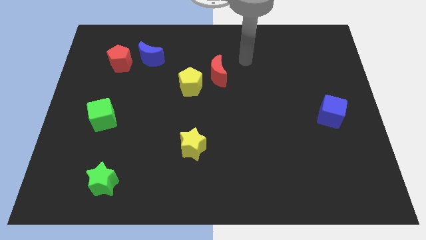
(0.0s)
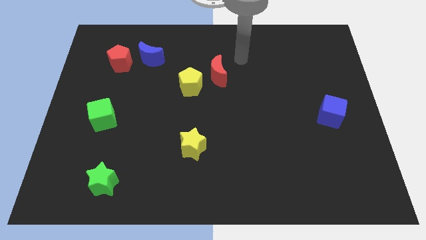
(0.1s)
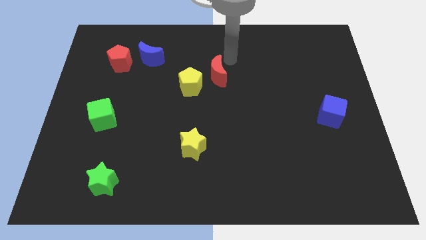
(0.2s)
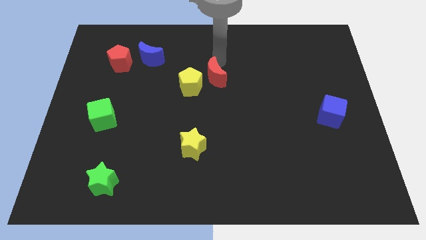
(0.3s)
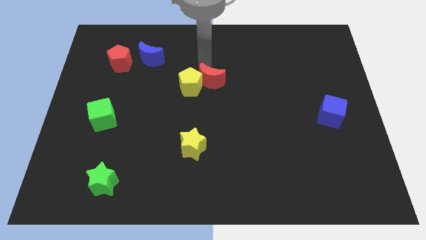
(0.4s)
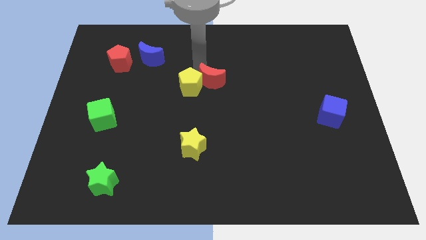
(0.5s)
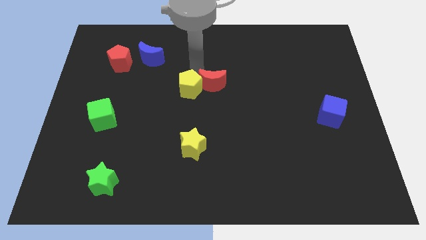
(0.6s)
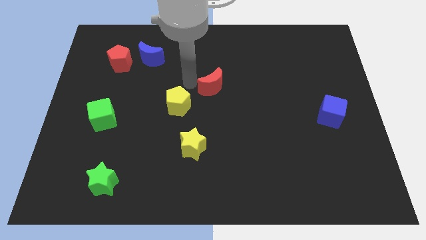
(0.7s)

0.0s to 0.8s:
pull the red moon apart from the yellow pentagon

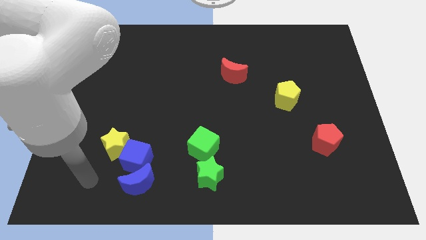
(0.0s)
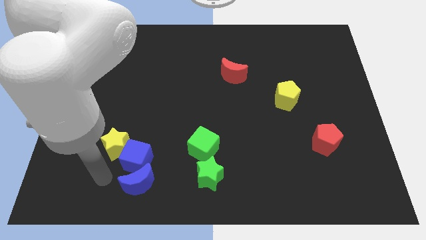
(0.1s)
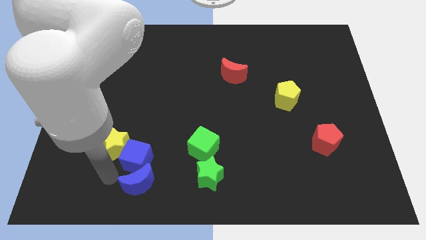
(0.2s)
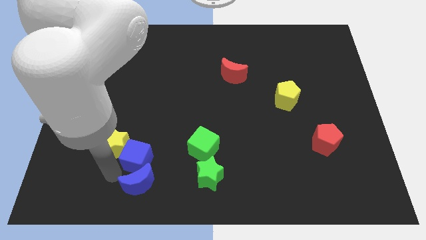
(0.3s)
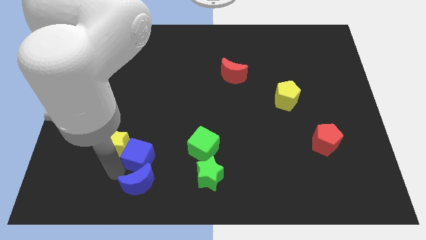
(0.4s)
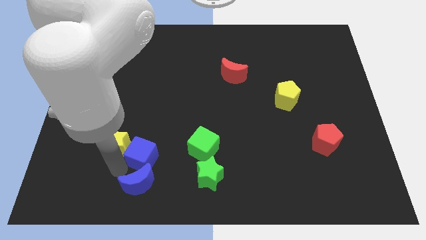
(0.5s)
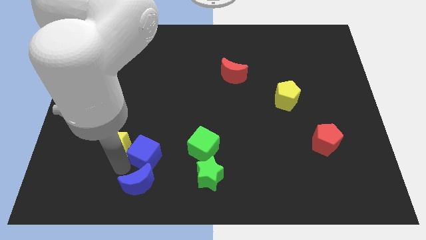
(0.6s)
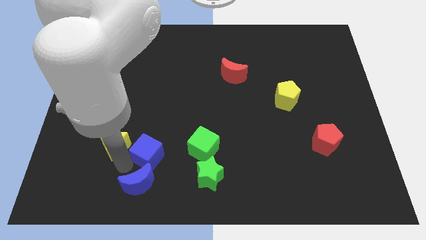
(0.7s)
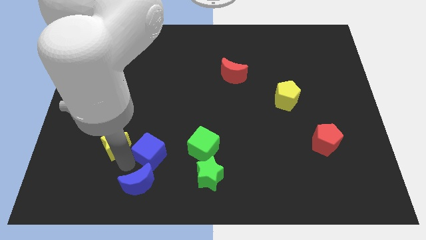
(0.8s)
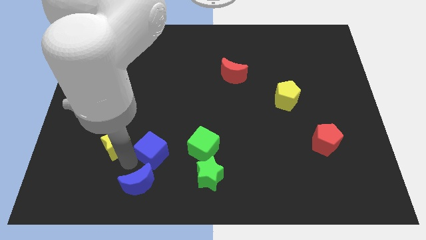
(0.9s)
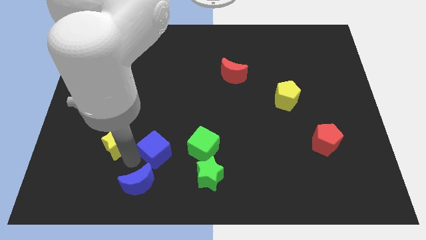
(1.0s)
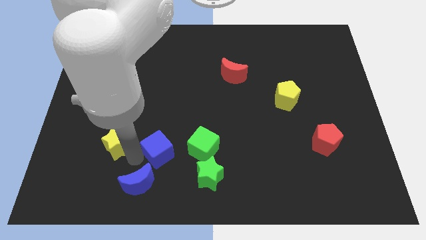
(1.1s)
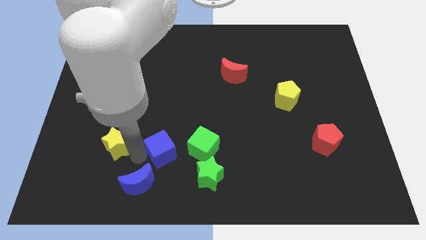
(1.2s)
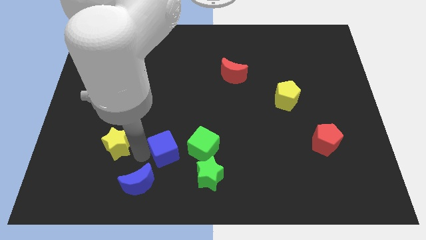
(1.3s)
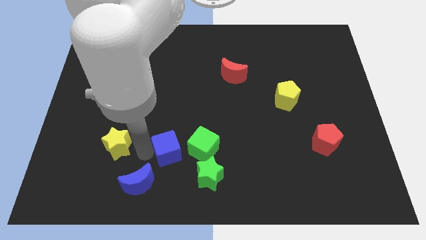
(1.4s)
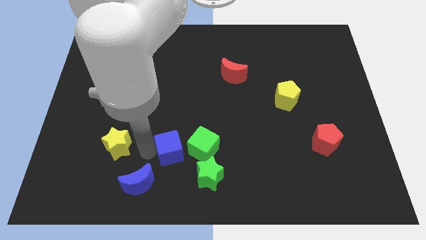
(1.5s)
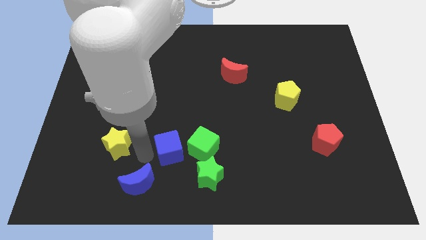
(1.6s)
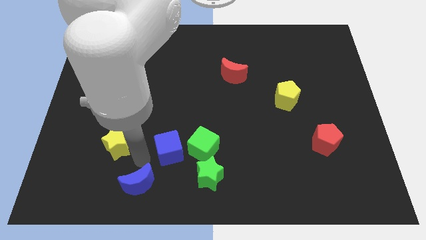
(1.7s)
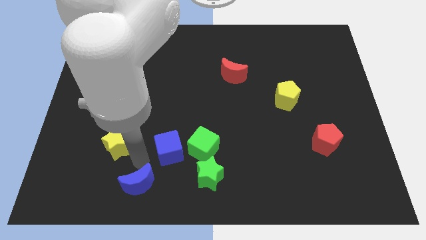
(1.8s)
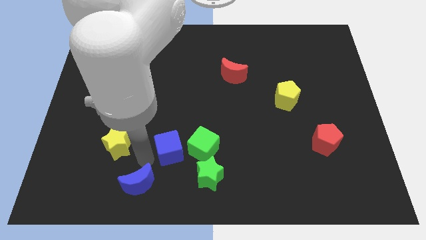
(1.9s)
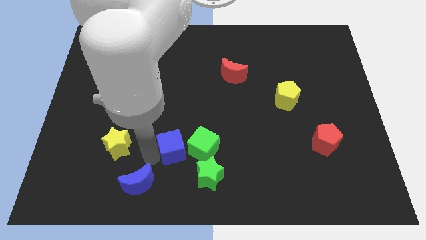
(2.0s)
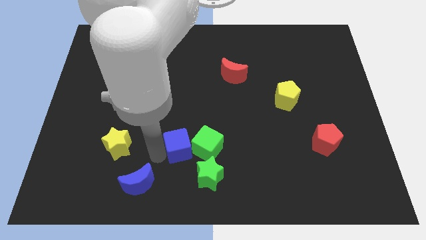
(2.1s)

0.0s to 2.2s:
separate the blue cube from the yellow star and blue moon

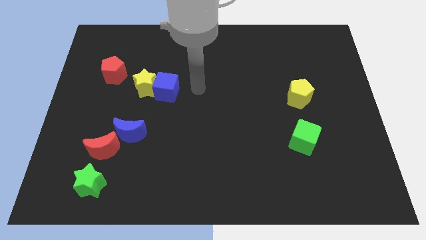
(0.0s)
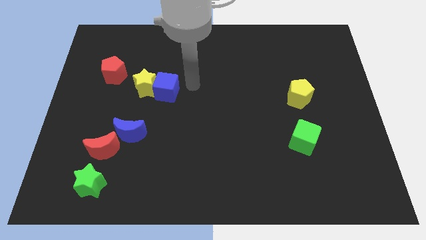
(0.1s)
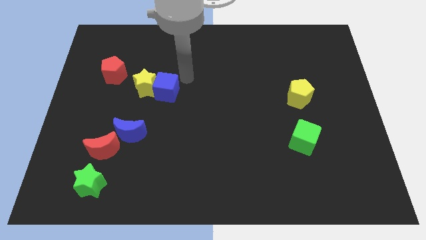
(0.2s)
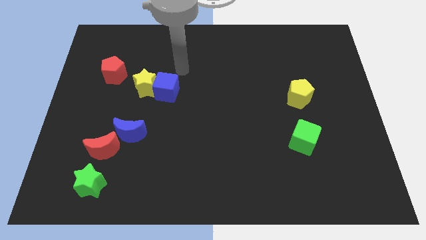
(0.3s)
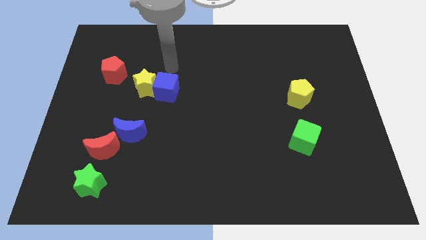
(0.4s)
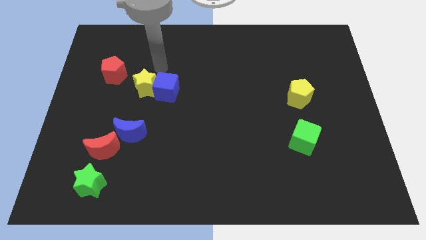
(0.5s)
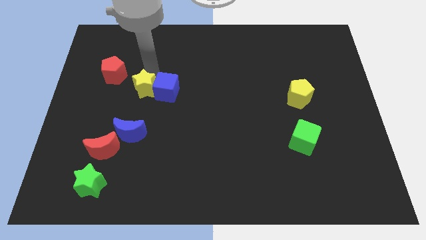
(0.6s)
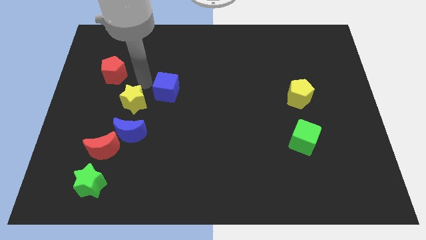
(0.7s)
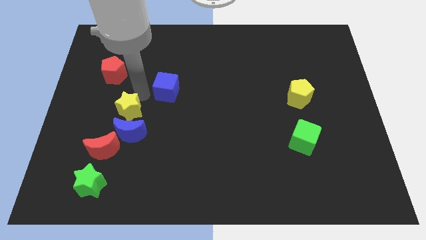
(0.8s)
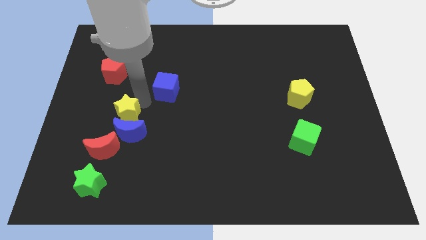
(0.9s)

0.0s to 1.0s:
move the blue cube away from the yellow star

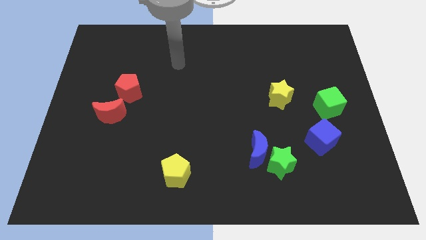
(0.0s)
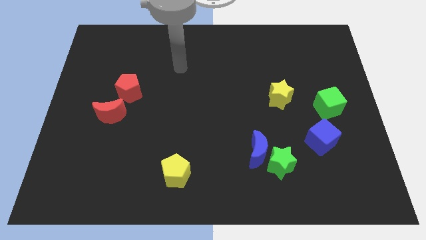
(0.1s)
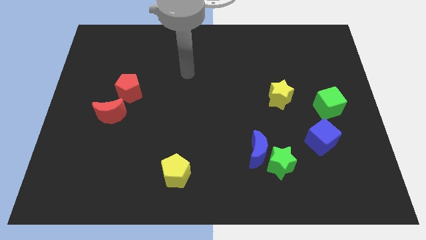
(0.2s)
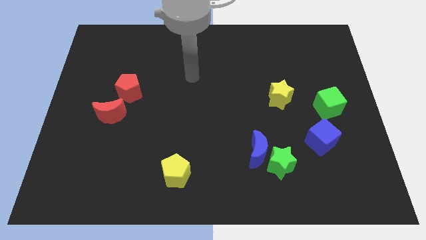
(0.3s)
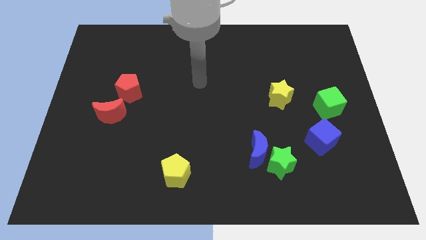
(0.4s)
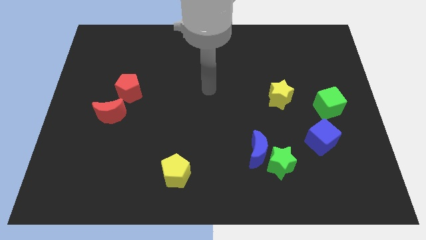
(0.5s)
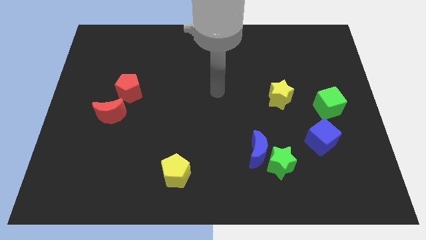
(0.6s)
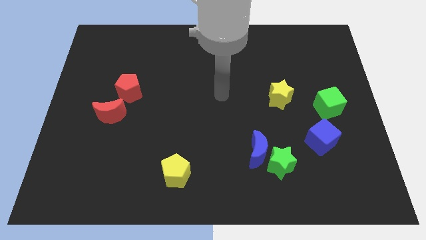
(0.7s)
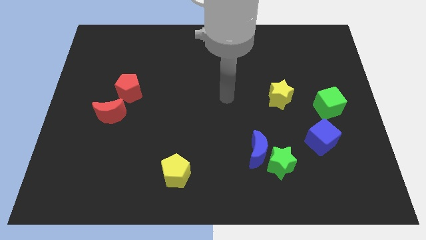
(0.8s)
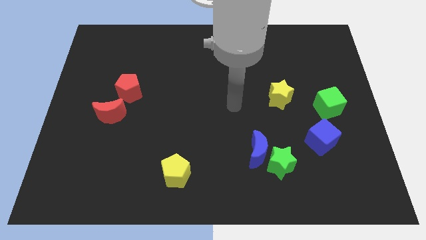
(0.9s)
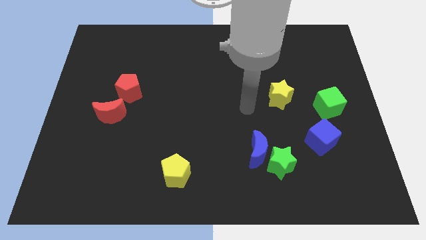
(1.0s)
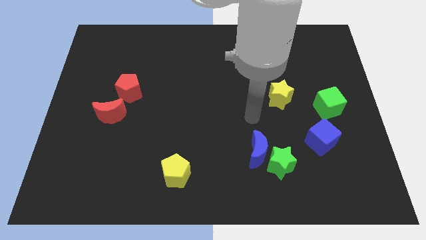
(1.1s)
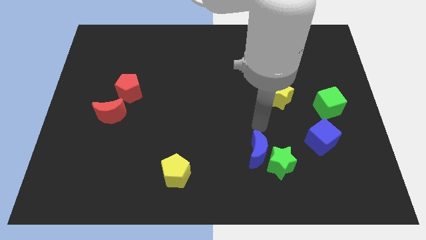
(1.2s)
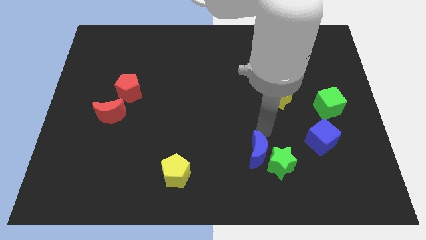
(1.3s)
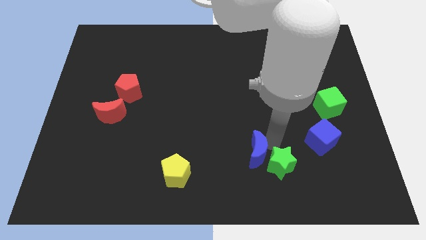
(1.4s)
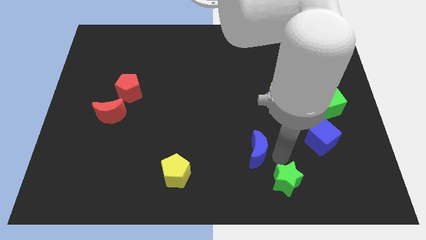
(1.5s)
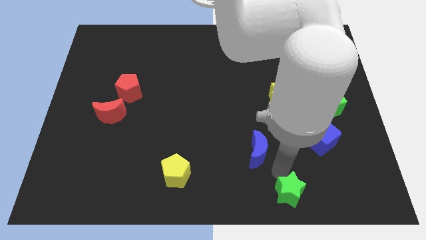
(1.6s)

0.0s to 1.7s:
separate the blue moon from the green star

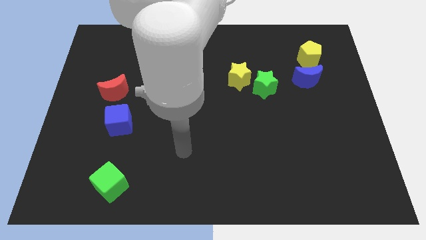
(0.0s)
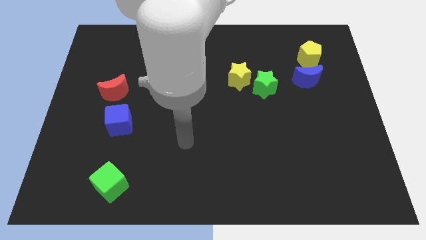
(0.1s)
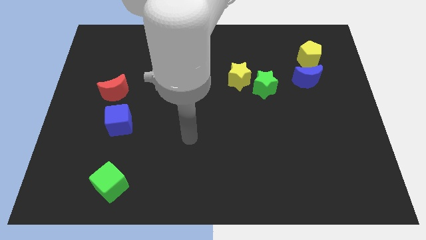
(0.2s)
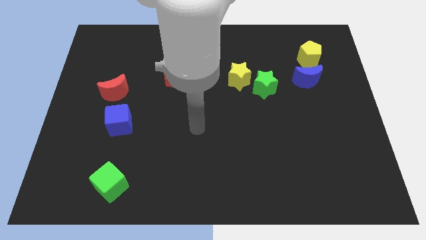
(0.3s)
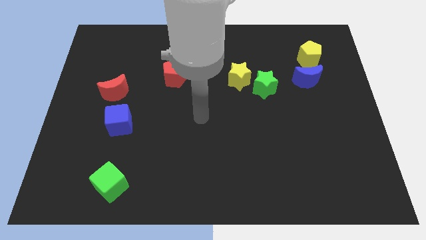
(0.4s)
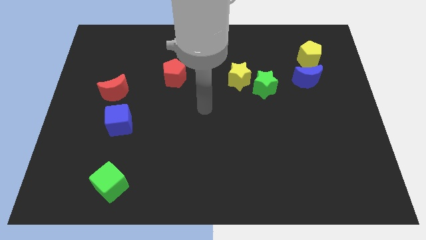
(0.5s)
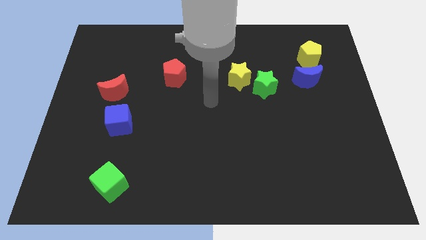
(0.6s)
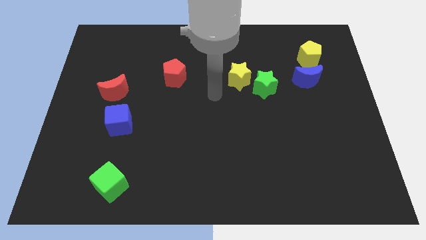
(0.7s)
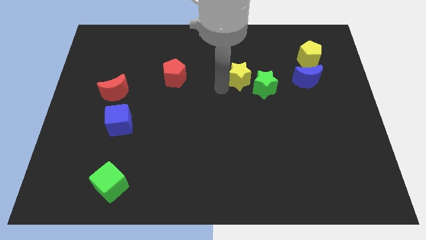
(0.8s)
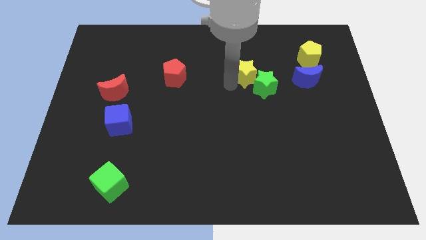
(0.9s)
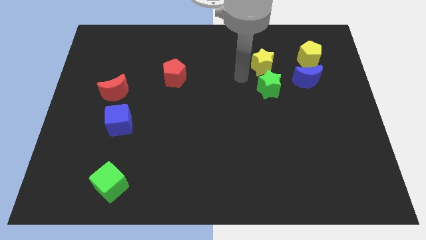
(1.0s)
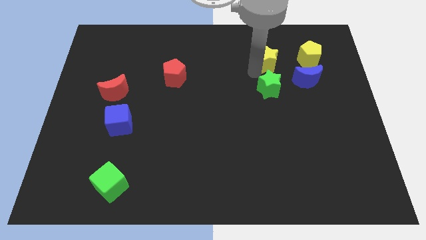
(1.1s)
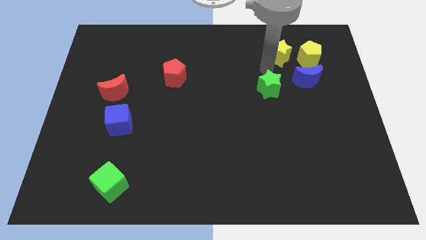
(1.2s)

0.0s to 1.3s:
move the green star away from the yellow star

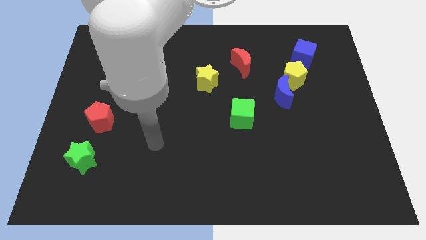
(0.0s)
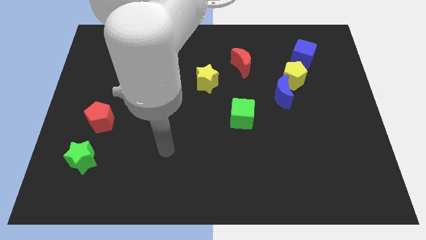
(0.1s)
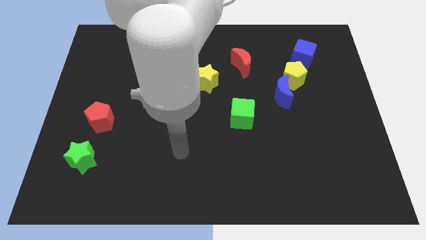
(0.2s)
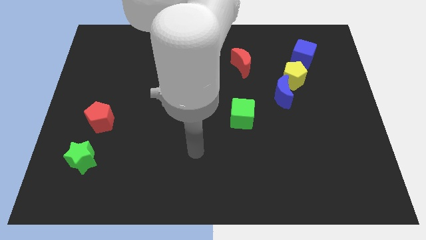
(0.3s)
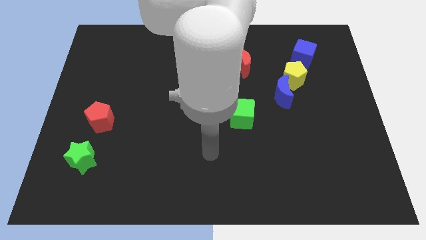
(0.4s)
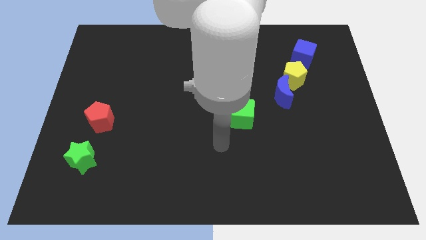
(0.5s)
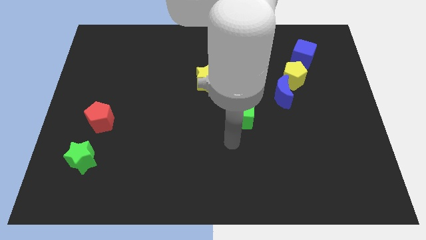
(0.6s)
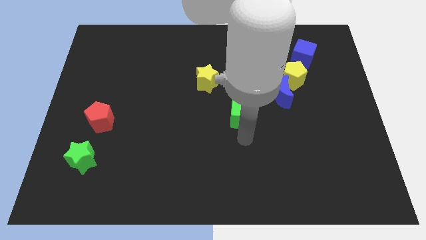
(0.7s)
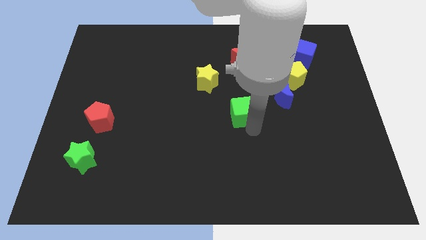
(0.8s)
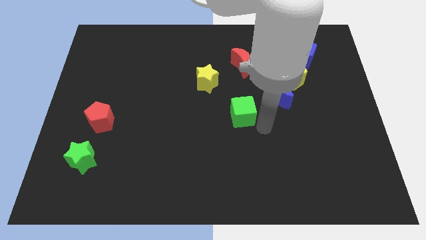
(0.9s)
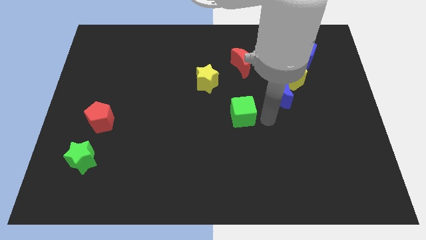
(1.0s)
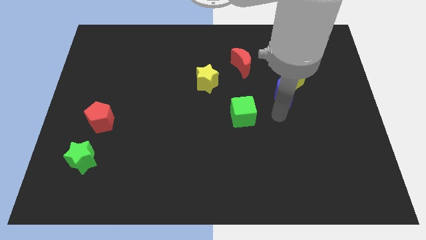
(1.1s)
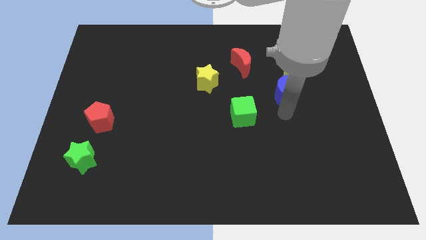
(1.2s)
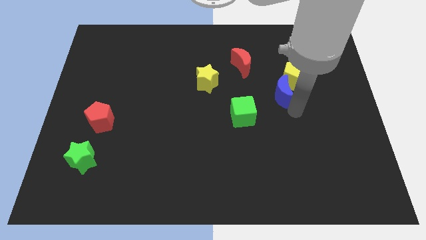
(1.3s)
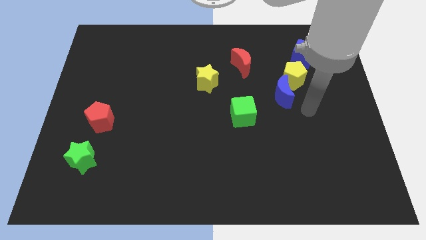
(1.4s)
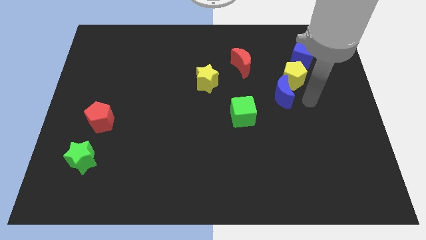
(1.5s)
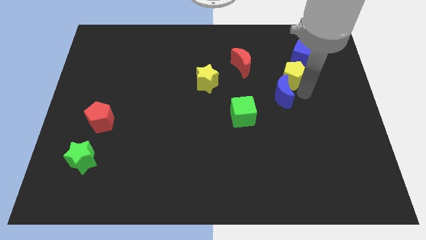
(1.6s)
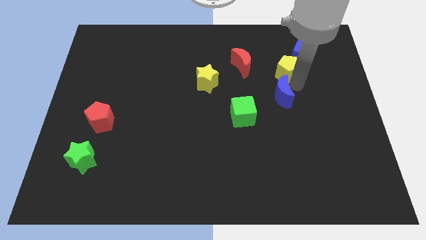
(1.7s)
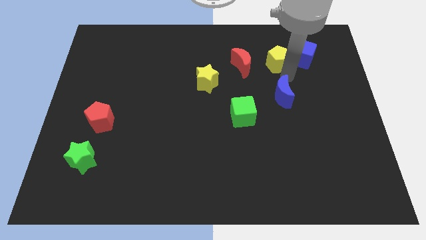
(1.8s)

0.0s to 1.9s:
separate the blue moon from the yellow pentagon

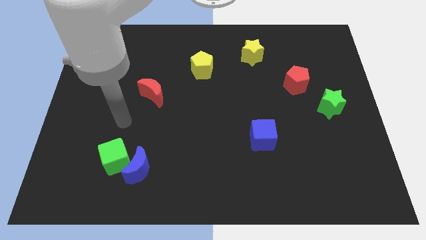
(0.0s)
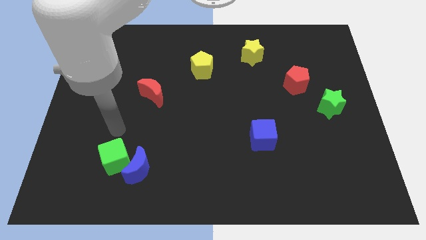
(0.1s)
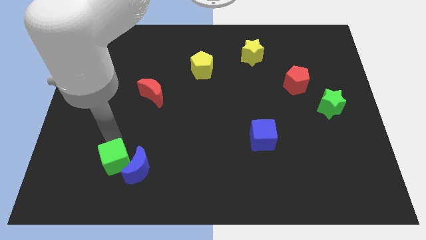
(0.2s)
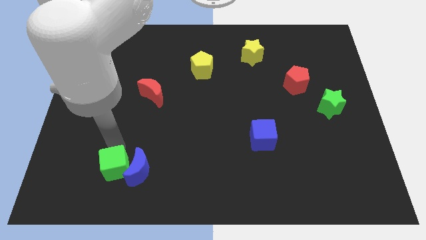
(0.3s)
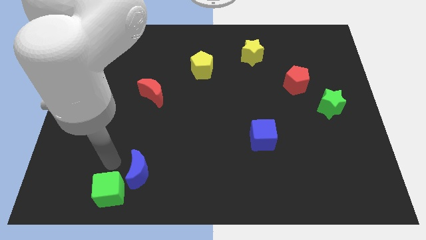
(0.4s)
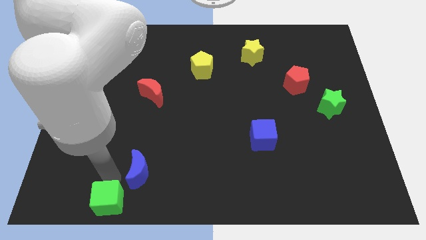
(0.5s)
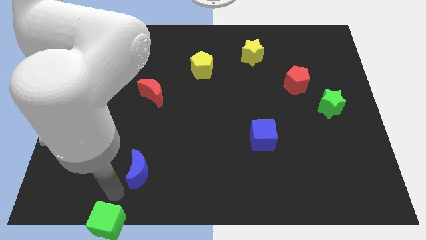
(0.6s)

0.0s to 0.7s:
move the blue moon away from the green cube
